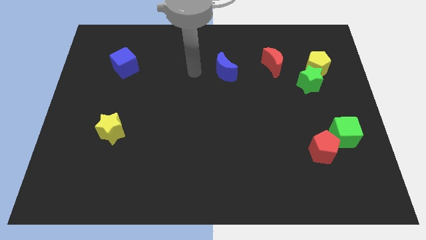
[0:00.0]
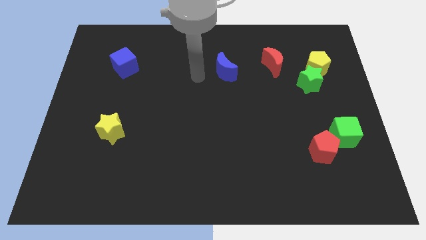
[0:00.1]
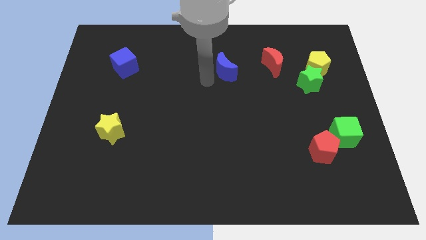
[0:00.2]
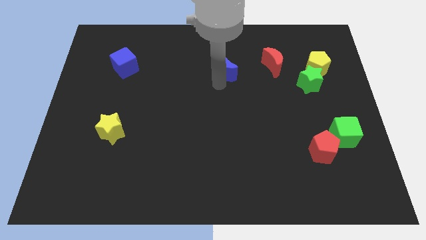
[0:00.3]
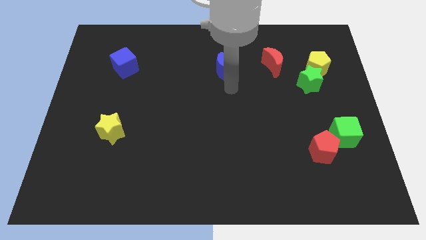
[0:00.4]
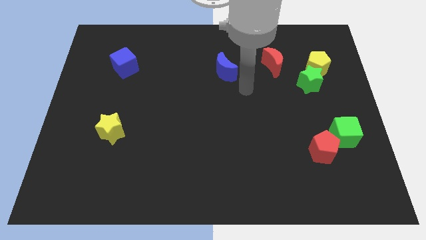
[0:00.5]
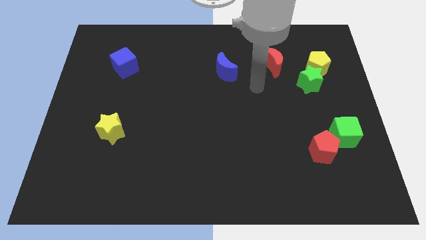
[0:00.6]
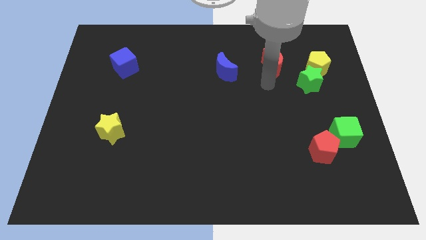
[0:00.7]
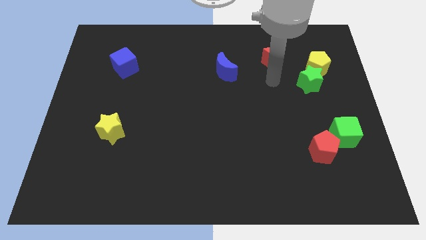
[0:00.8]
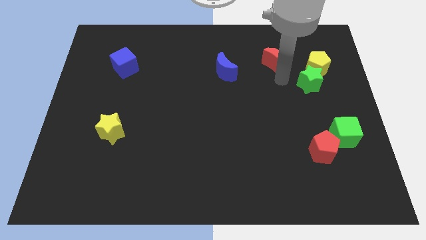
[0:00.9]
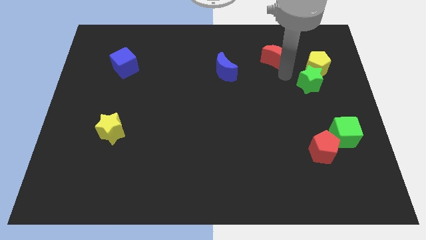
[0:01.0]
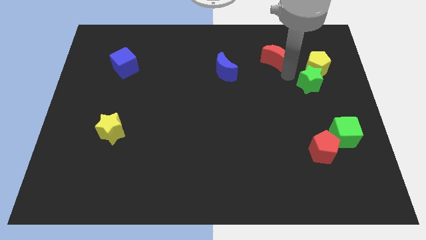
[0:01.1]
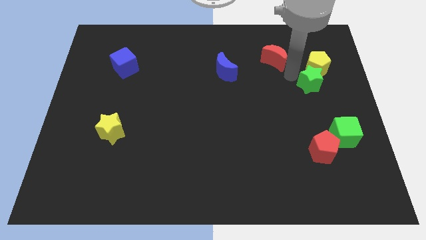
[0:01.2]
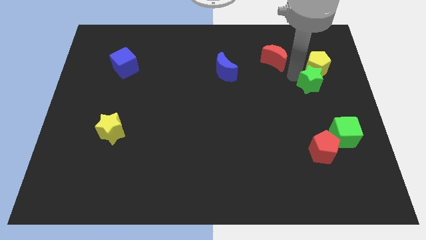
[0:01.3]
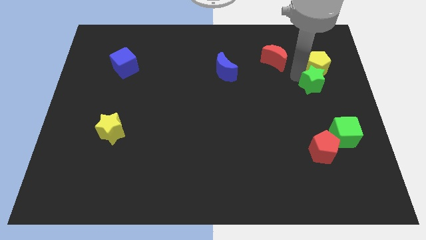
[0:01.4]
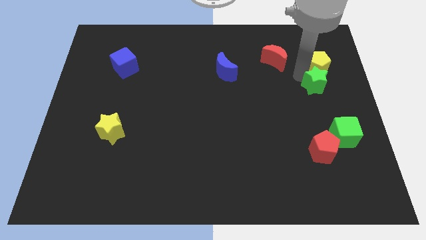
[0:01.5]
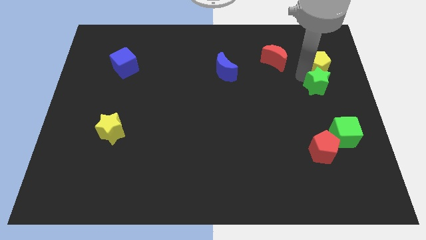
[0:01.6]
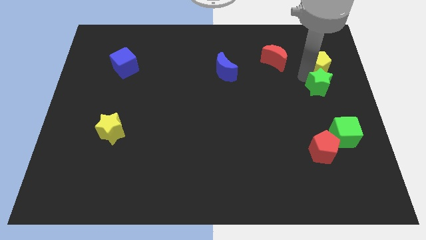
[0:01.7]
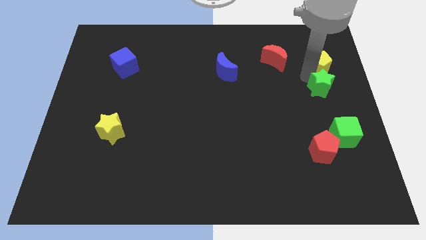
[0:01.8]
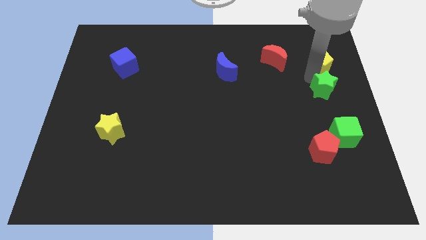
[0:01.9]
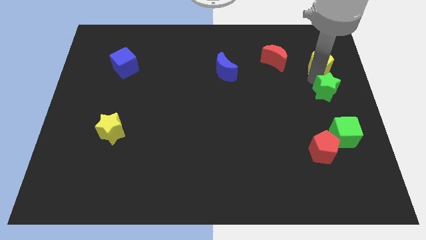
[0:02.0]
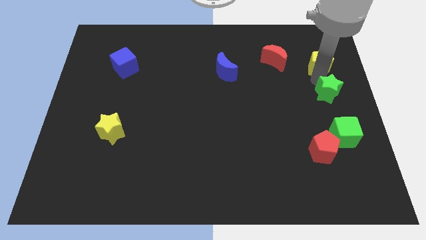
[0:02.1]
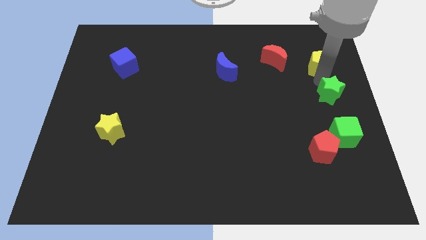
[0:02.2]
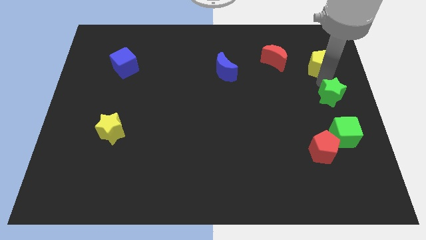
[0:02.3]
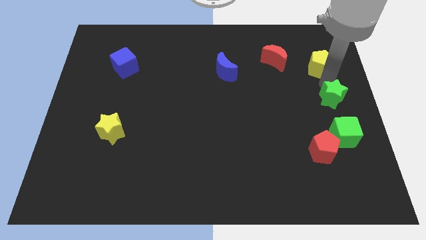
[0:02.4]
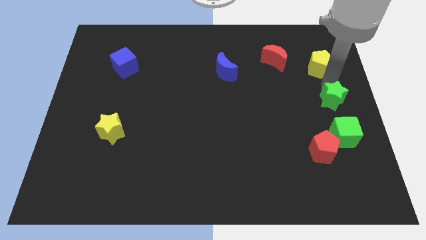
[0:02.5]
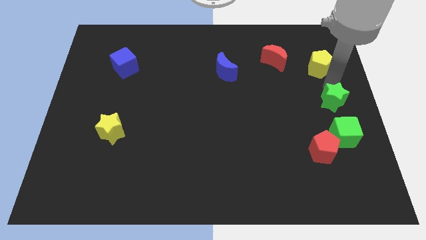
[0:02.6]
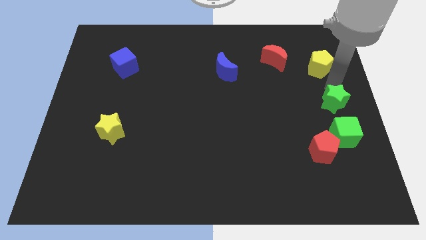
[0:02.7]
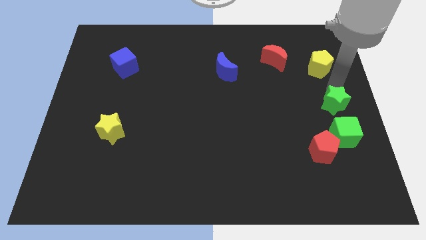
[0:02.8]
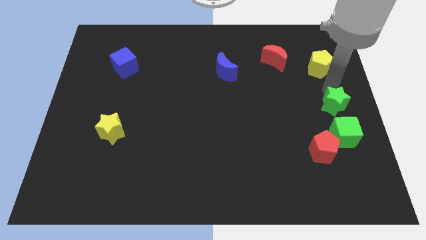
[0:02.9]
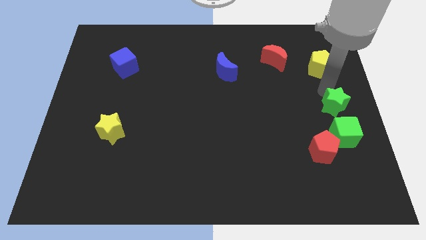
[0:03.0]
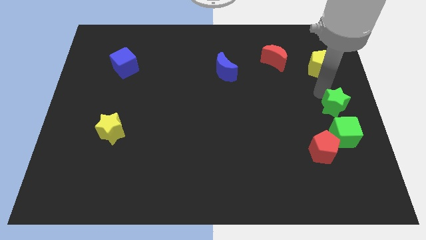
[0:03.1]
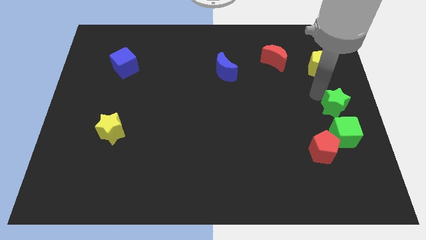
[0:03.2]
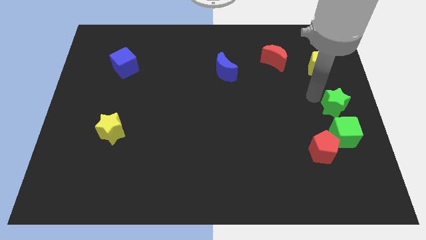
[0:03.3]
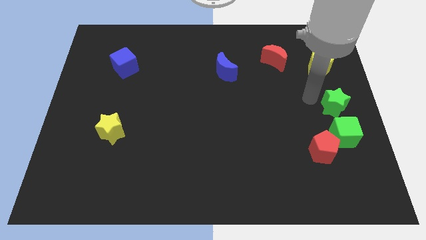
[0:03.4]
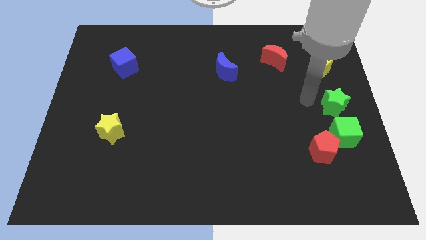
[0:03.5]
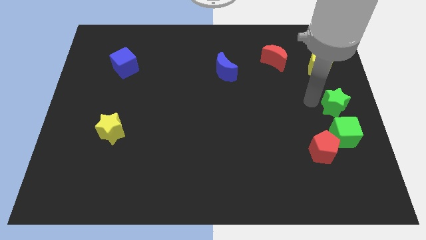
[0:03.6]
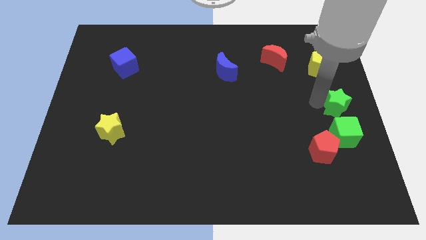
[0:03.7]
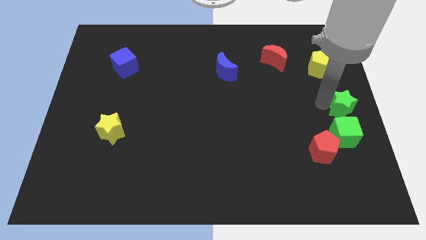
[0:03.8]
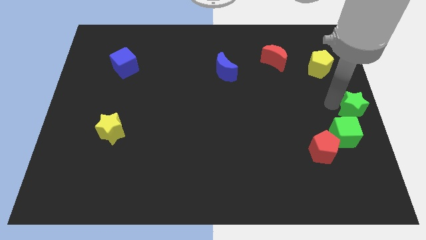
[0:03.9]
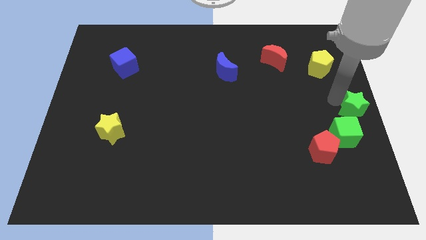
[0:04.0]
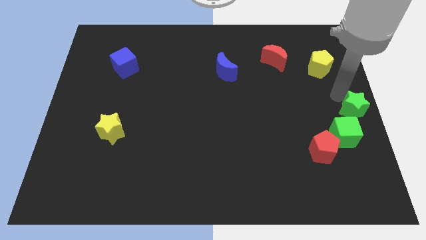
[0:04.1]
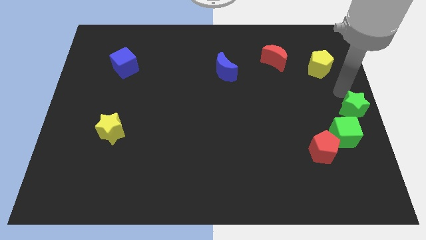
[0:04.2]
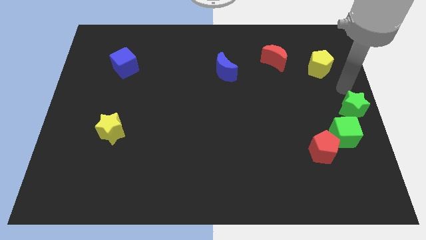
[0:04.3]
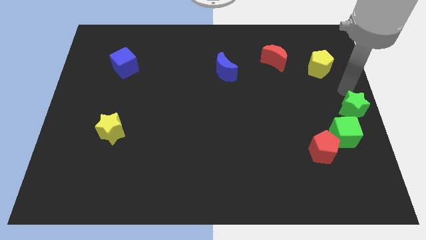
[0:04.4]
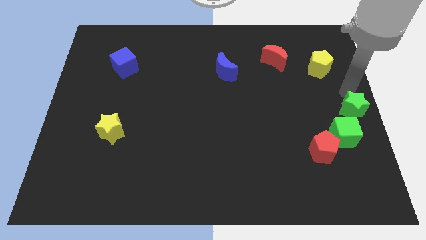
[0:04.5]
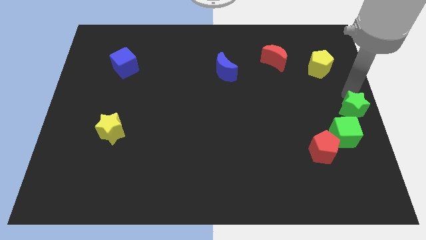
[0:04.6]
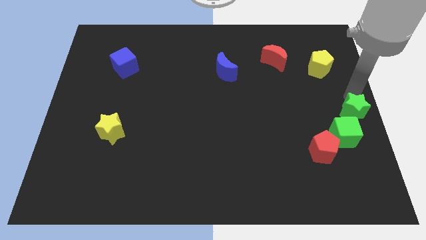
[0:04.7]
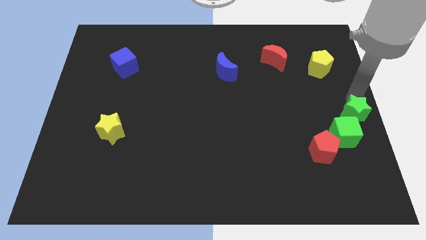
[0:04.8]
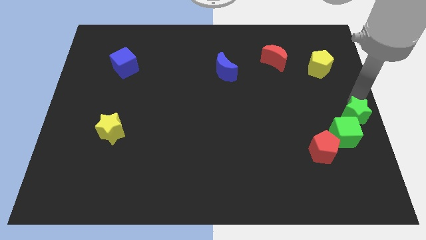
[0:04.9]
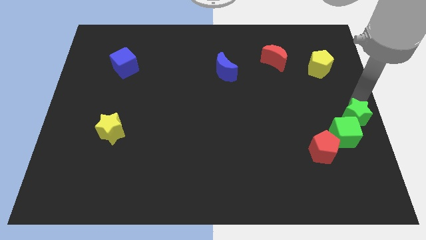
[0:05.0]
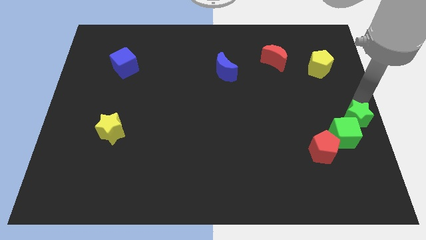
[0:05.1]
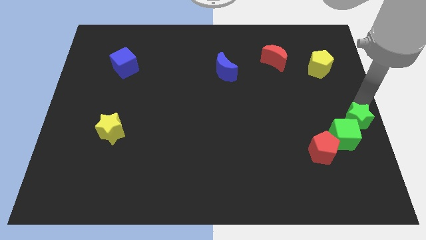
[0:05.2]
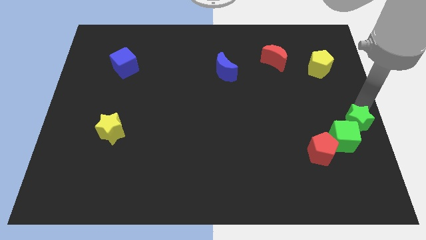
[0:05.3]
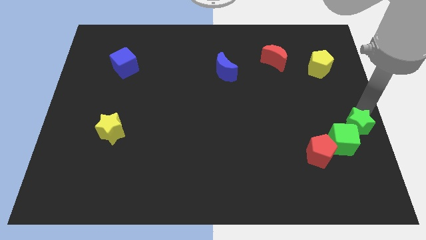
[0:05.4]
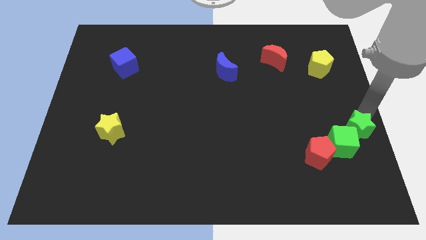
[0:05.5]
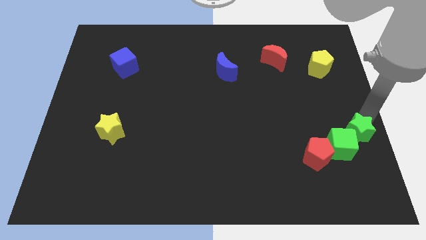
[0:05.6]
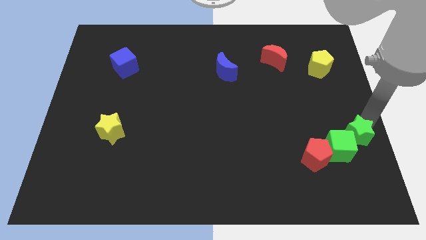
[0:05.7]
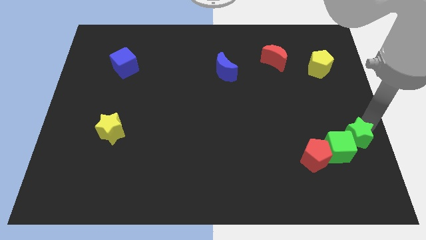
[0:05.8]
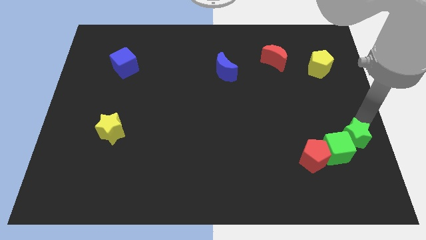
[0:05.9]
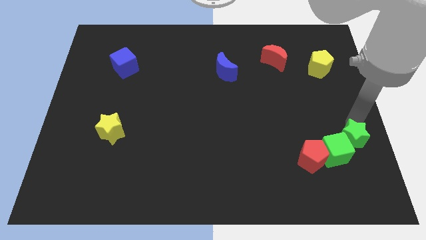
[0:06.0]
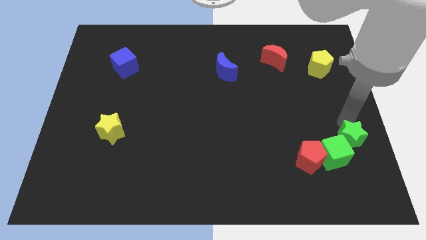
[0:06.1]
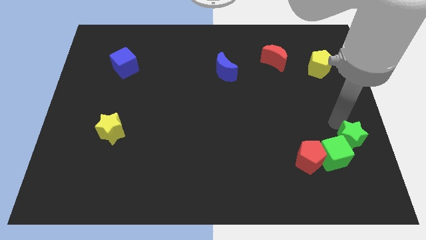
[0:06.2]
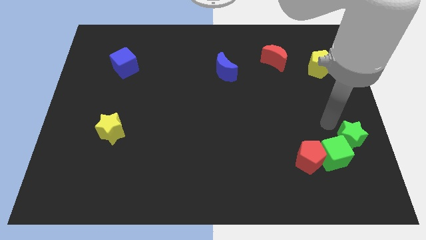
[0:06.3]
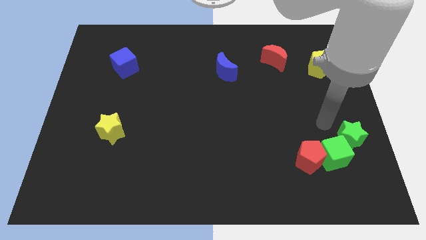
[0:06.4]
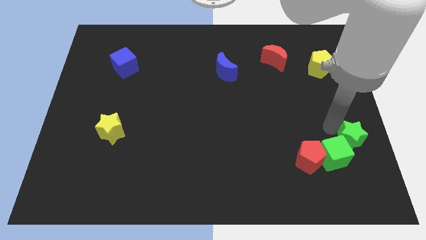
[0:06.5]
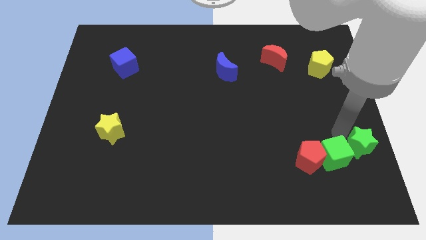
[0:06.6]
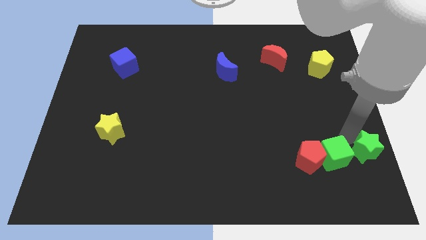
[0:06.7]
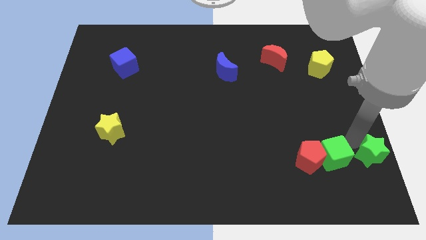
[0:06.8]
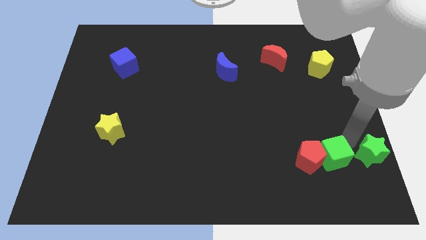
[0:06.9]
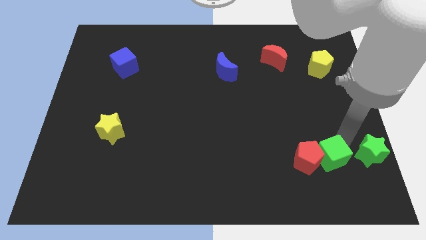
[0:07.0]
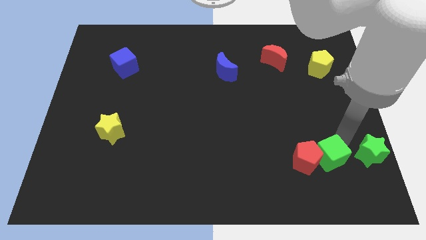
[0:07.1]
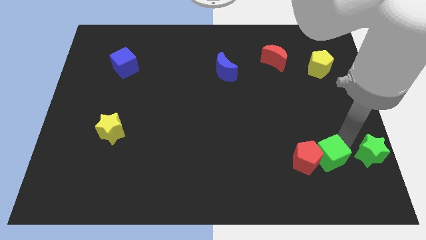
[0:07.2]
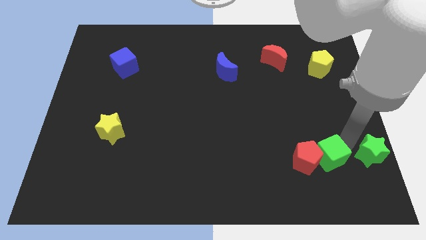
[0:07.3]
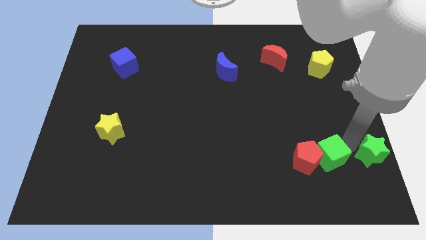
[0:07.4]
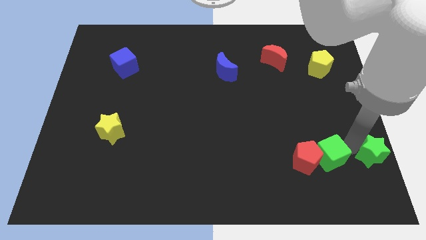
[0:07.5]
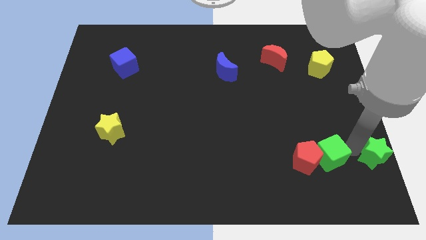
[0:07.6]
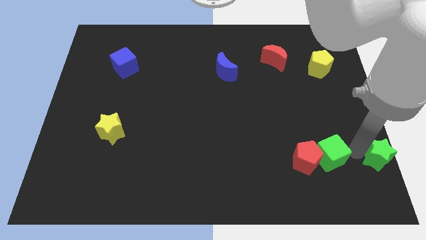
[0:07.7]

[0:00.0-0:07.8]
put the green star to the bottom right corner
